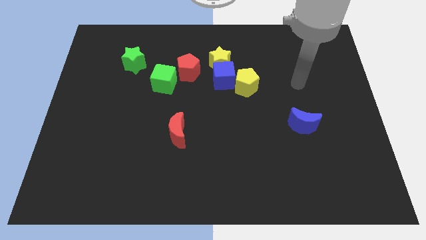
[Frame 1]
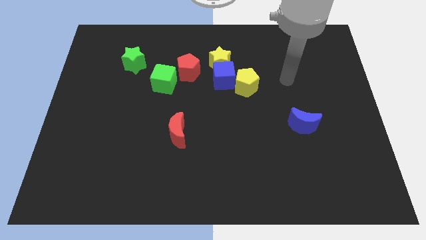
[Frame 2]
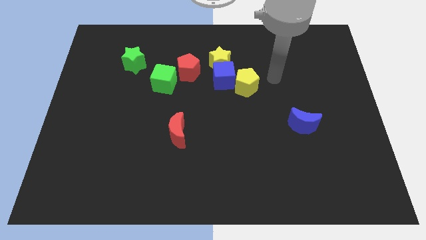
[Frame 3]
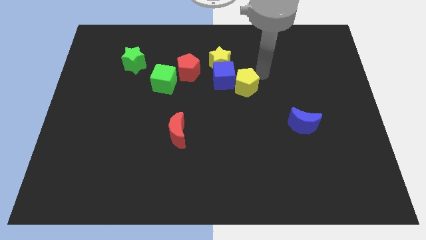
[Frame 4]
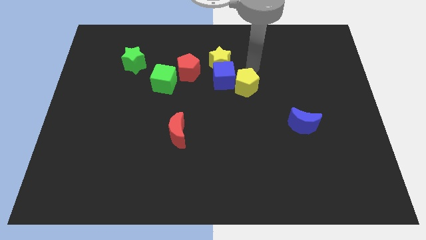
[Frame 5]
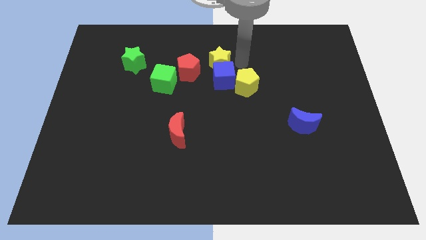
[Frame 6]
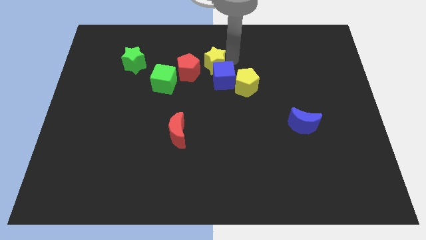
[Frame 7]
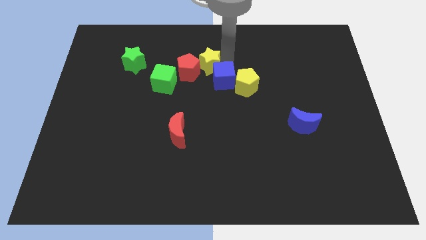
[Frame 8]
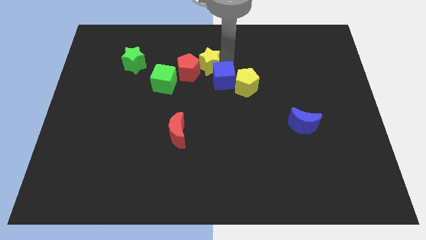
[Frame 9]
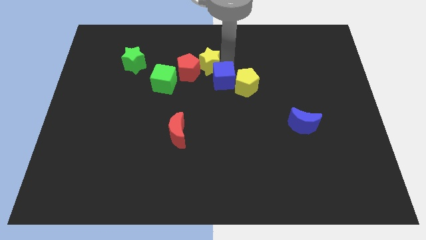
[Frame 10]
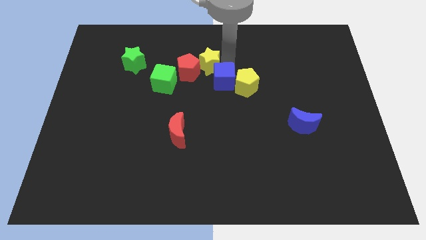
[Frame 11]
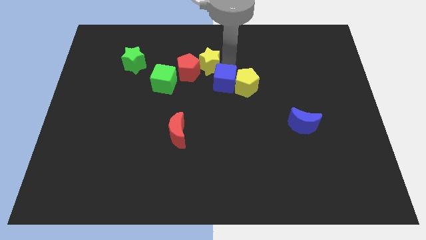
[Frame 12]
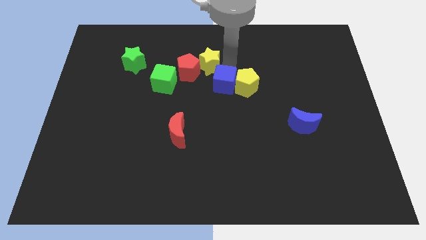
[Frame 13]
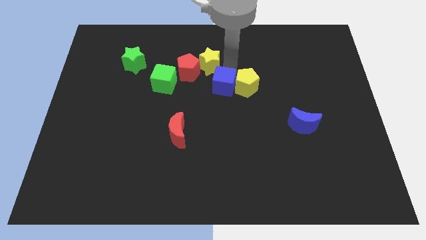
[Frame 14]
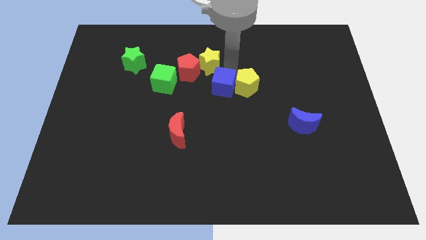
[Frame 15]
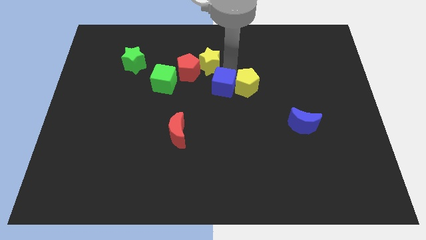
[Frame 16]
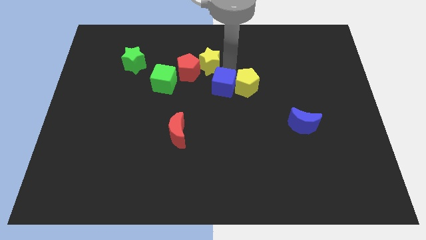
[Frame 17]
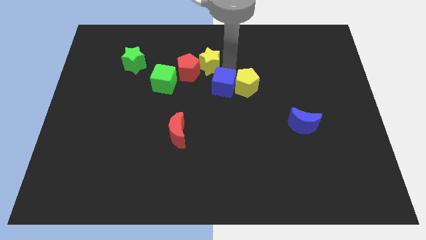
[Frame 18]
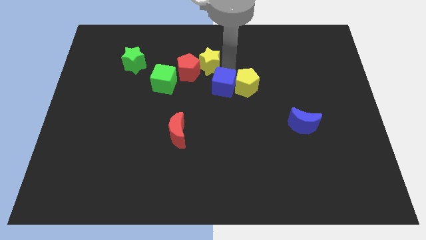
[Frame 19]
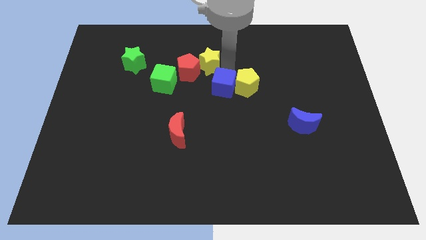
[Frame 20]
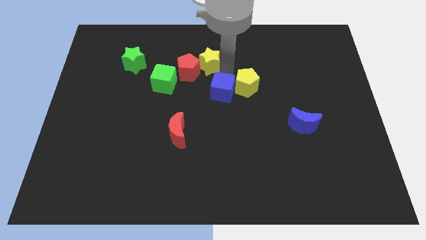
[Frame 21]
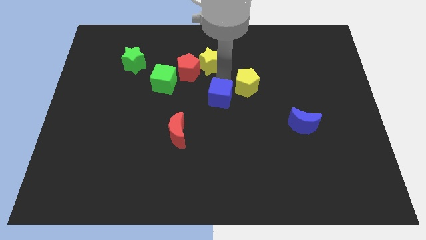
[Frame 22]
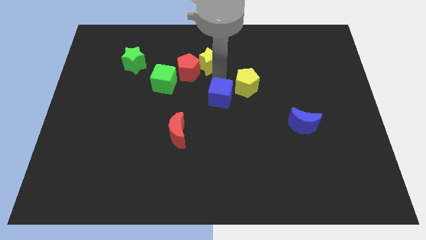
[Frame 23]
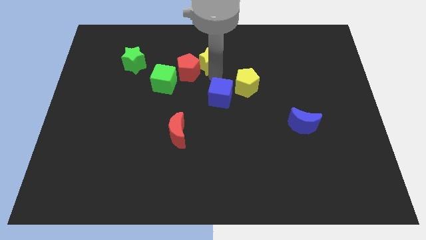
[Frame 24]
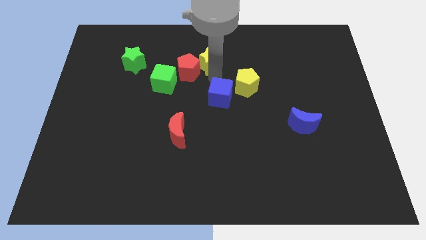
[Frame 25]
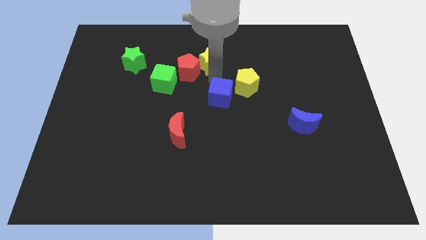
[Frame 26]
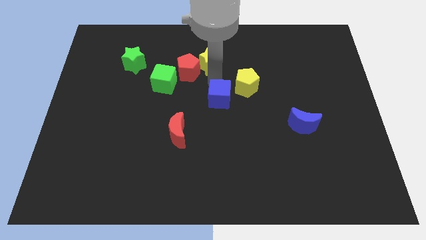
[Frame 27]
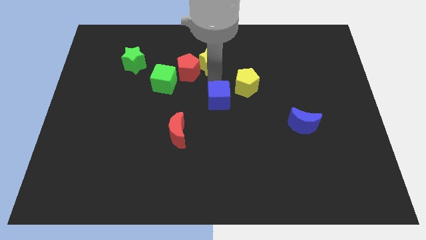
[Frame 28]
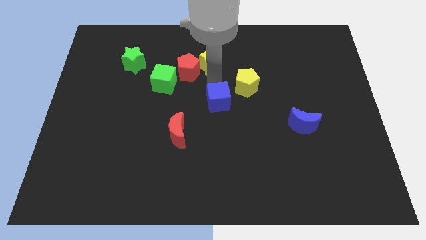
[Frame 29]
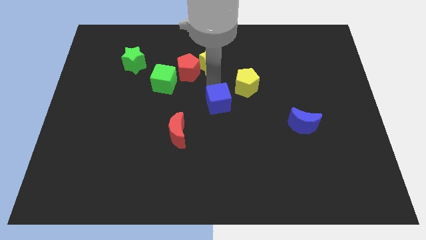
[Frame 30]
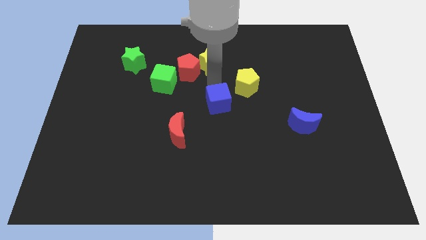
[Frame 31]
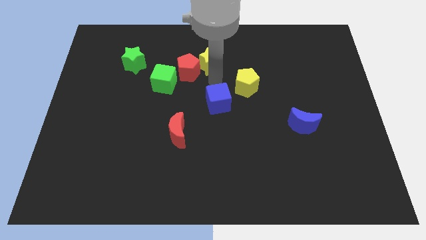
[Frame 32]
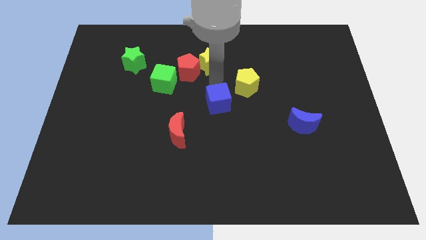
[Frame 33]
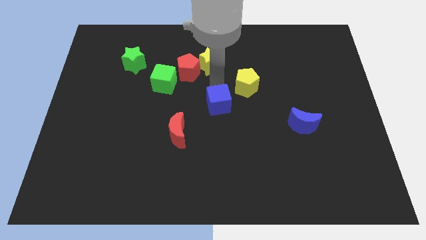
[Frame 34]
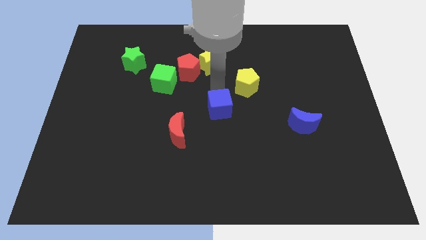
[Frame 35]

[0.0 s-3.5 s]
move the blue cube away from the yellow star, yellow pentagon, and red pentagon

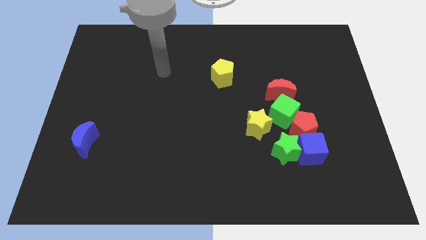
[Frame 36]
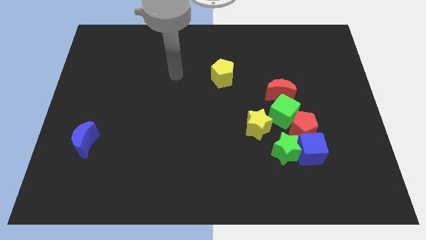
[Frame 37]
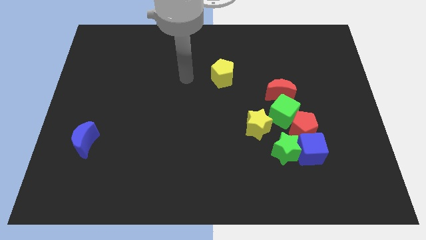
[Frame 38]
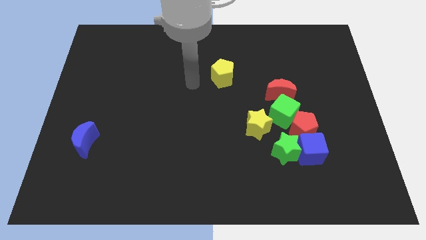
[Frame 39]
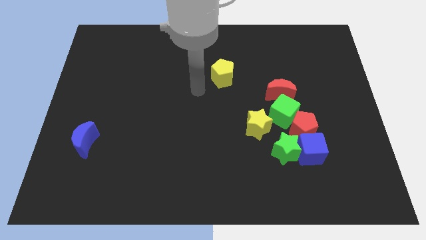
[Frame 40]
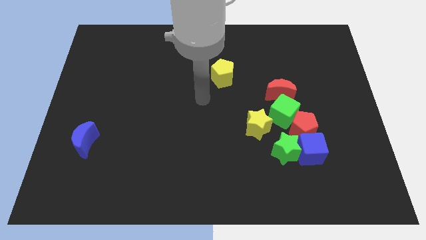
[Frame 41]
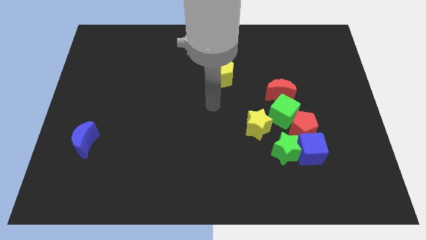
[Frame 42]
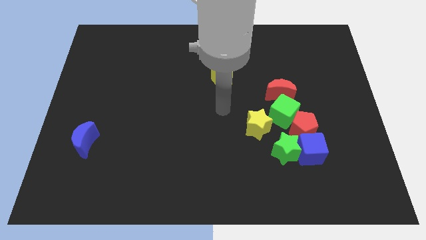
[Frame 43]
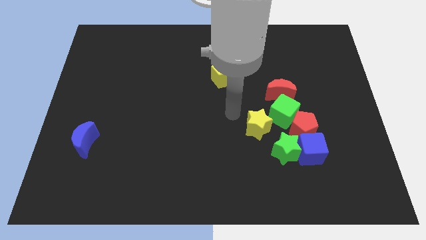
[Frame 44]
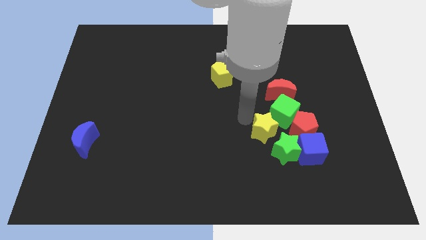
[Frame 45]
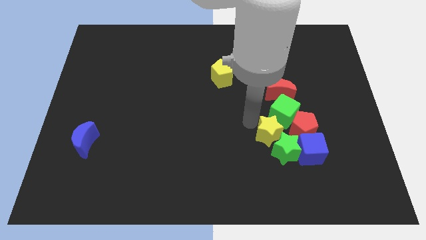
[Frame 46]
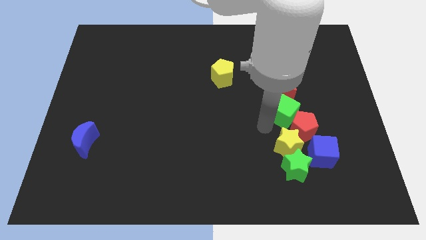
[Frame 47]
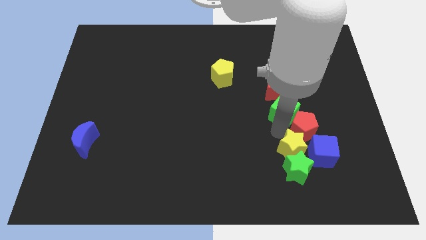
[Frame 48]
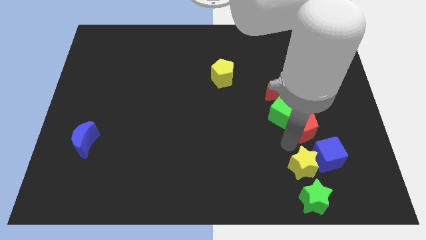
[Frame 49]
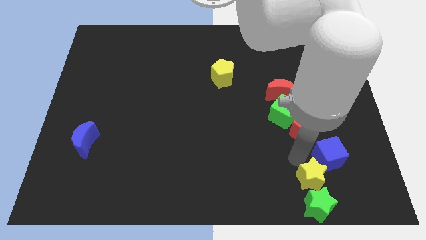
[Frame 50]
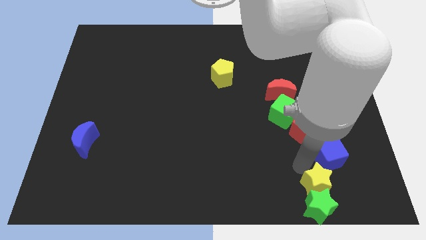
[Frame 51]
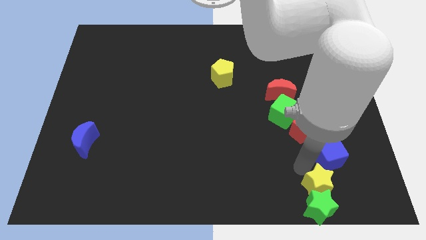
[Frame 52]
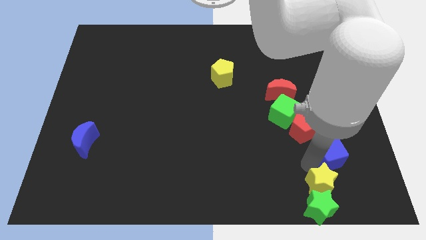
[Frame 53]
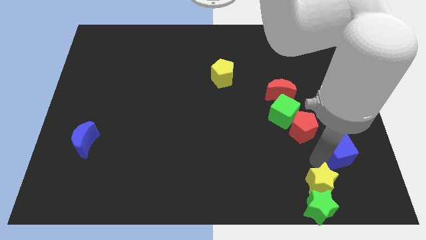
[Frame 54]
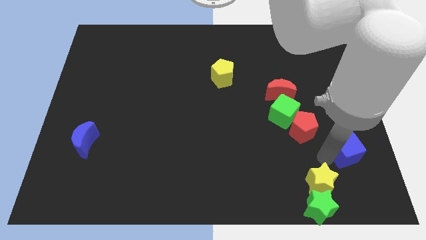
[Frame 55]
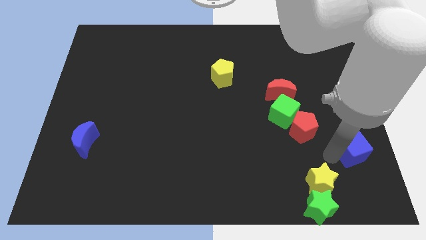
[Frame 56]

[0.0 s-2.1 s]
separate the blue cube from the green star and red pentagon

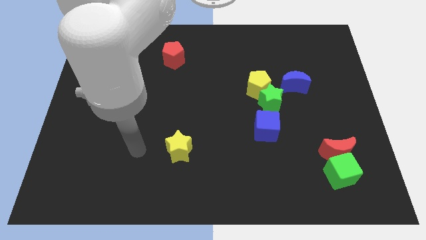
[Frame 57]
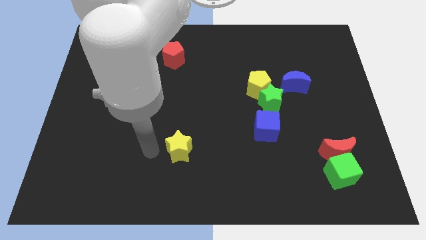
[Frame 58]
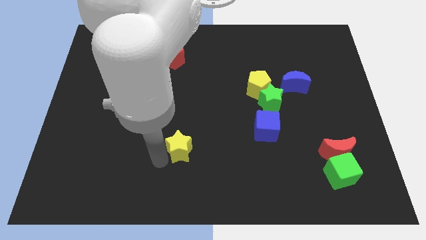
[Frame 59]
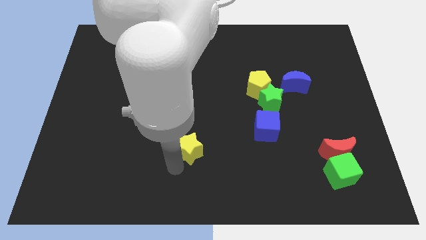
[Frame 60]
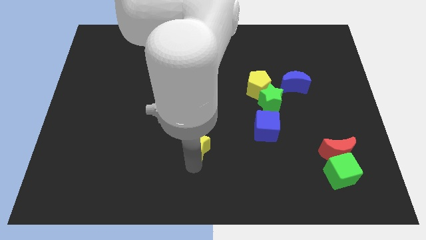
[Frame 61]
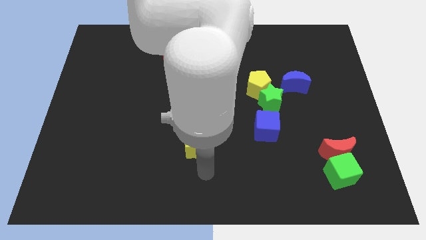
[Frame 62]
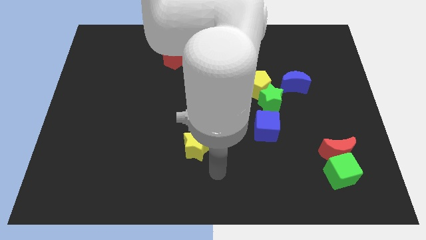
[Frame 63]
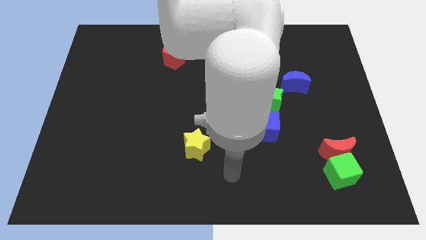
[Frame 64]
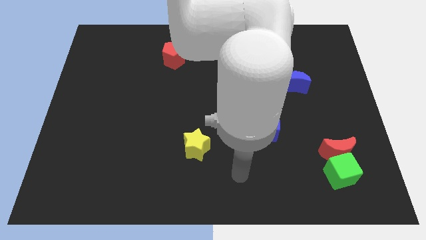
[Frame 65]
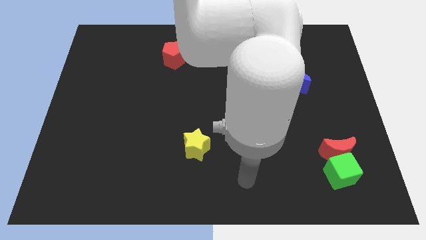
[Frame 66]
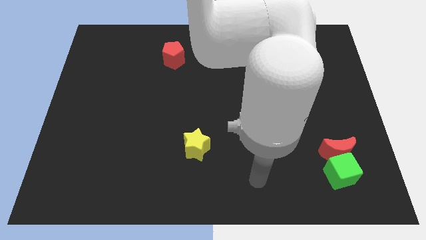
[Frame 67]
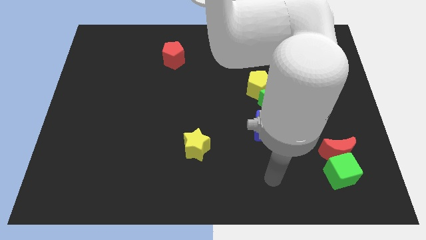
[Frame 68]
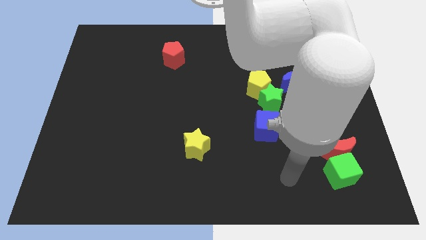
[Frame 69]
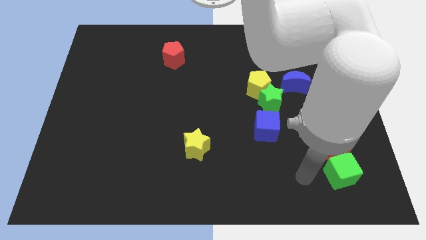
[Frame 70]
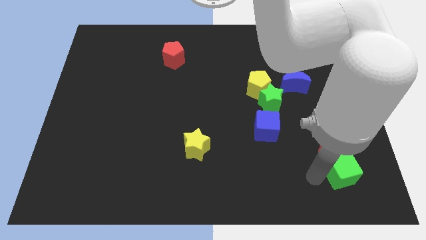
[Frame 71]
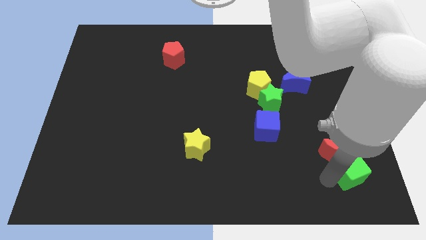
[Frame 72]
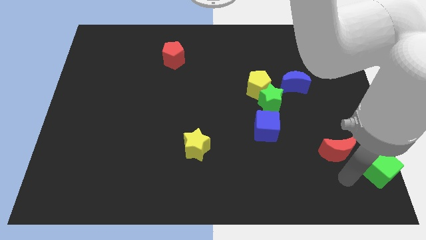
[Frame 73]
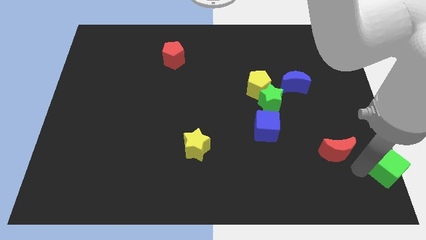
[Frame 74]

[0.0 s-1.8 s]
move the red moon away from the green cube

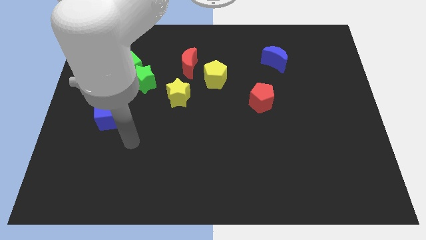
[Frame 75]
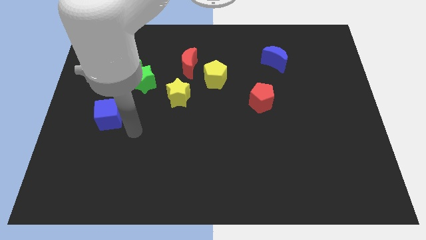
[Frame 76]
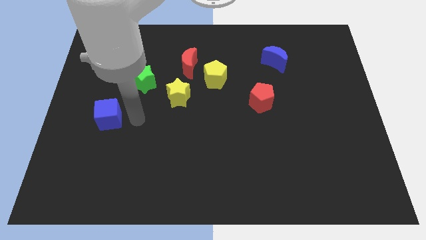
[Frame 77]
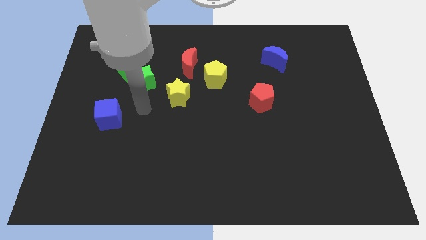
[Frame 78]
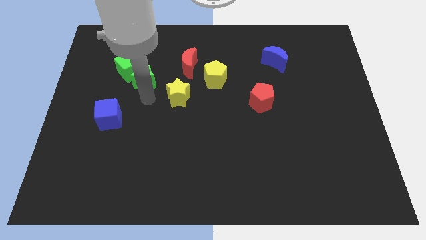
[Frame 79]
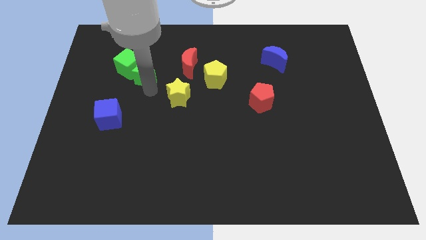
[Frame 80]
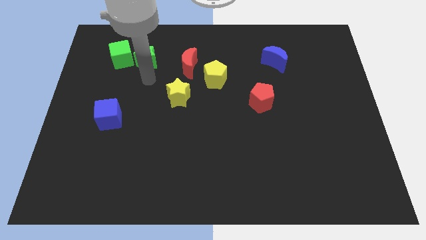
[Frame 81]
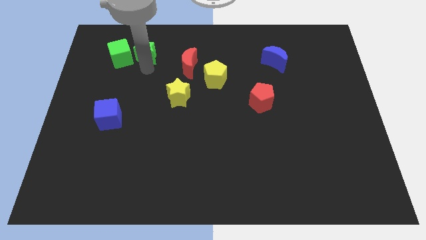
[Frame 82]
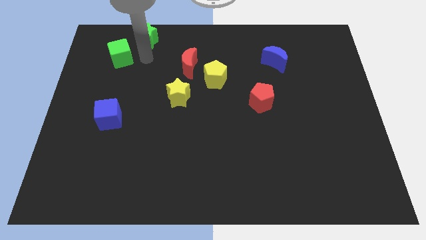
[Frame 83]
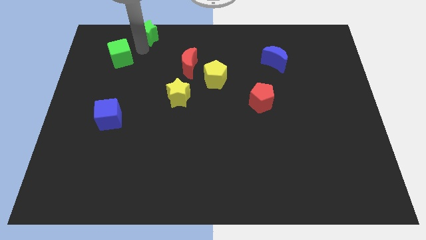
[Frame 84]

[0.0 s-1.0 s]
move the green cube away from the green star

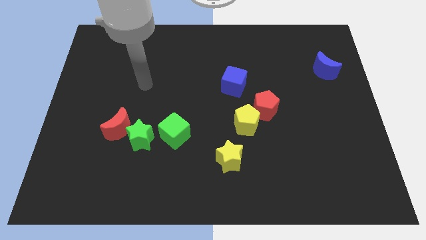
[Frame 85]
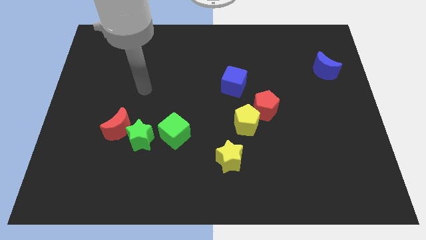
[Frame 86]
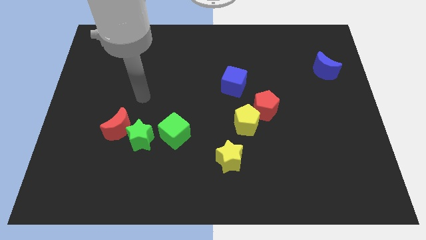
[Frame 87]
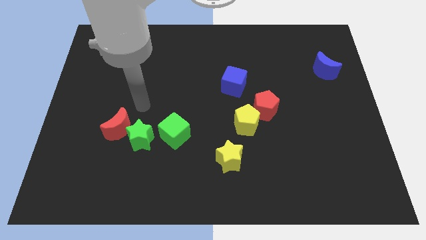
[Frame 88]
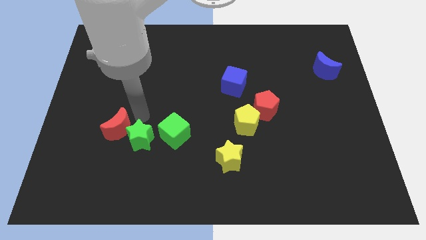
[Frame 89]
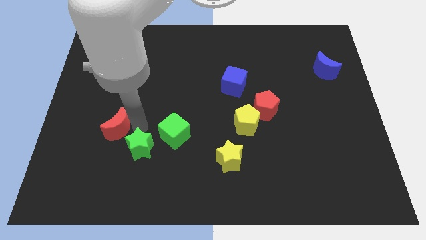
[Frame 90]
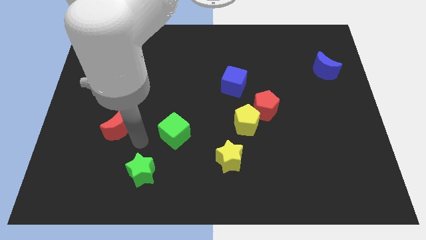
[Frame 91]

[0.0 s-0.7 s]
move the red moon away from the green star

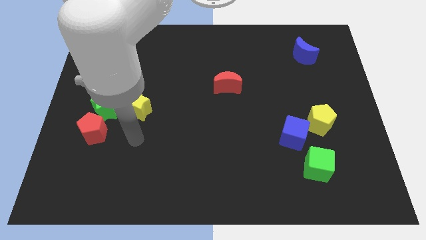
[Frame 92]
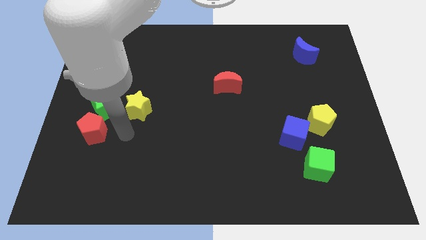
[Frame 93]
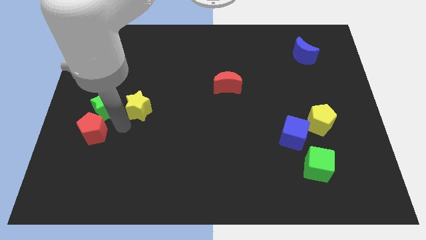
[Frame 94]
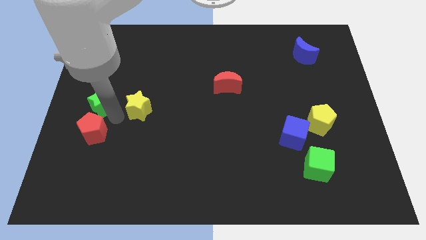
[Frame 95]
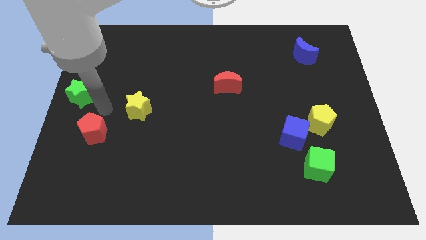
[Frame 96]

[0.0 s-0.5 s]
pull the red pentagon apart from the green star
